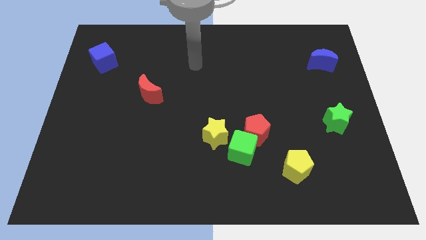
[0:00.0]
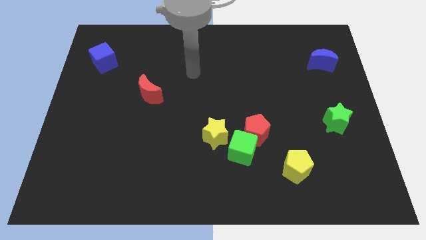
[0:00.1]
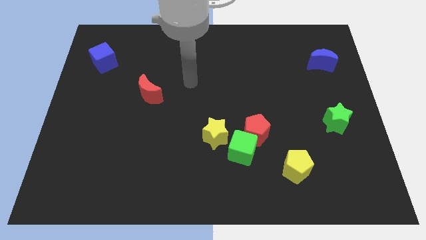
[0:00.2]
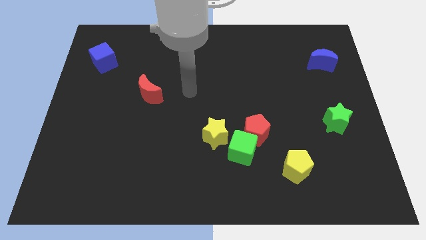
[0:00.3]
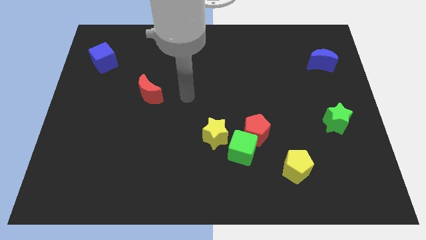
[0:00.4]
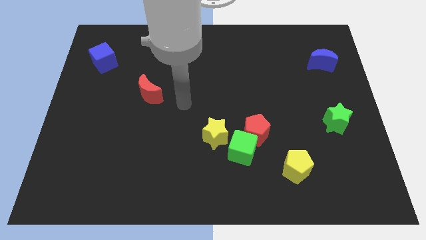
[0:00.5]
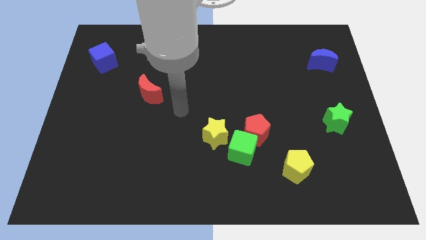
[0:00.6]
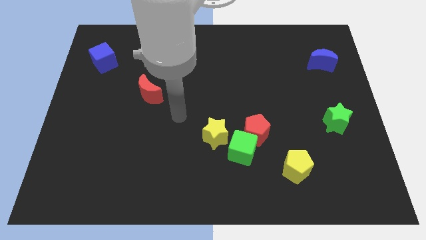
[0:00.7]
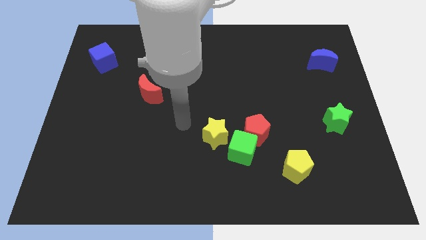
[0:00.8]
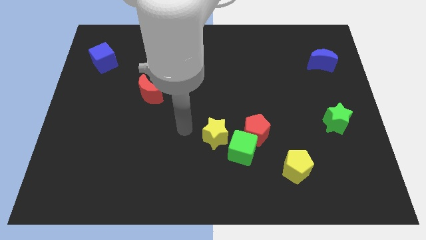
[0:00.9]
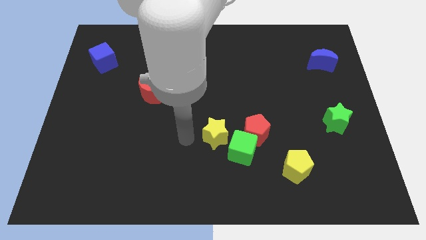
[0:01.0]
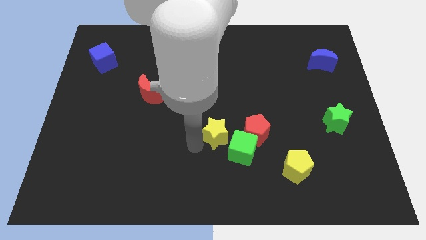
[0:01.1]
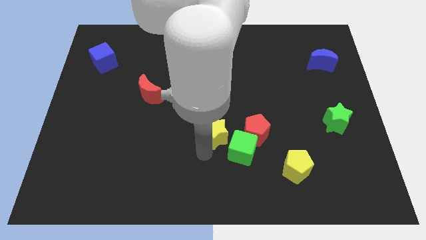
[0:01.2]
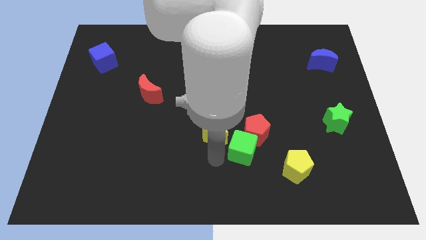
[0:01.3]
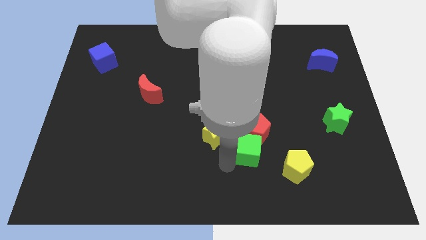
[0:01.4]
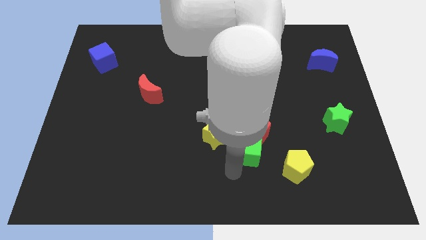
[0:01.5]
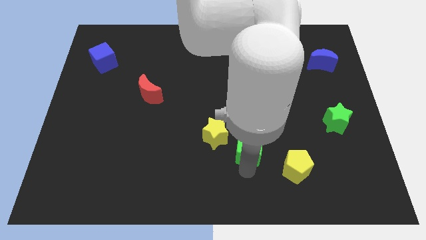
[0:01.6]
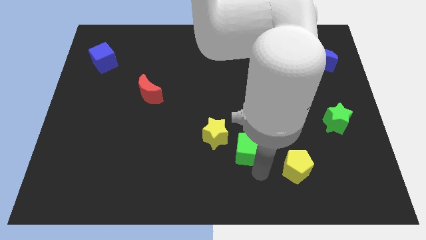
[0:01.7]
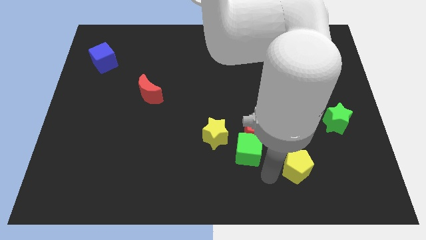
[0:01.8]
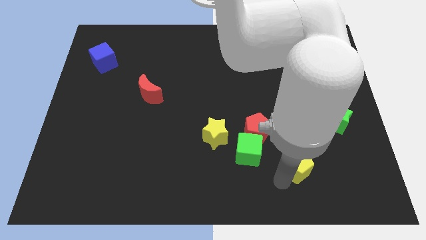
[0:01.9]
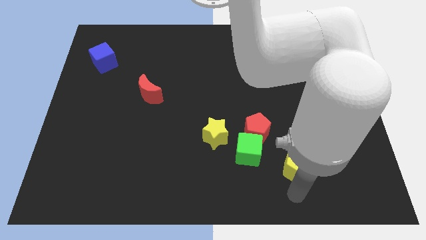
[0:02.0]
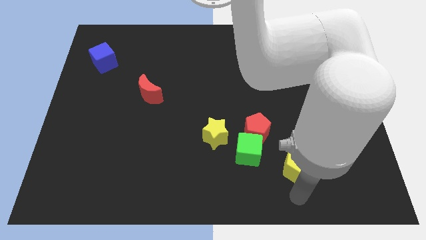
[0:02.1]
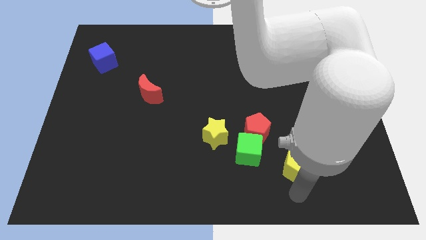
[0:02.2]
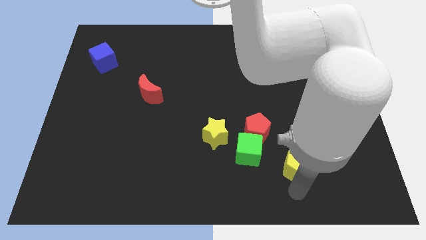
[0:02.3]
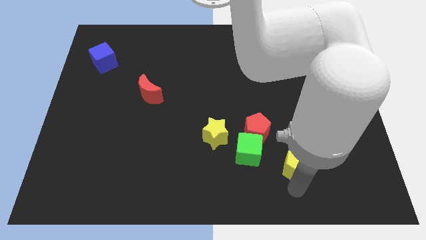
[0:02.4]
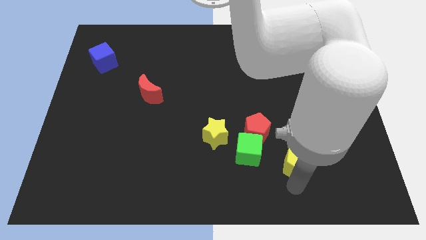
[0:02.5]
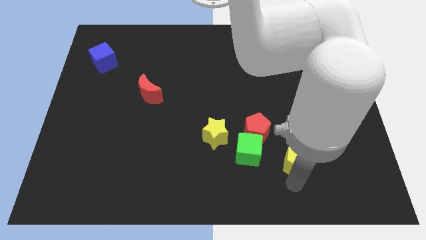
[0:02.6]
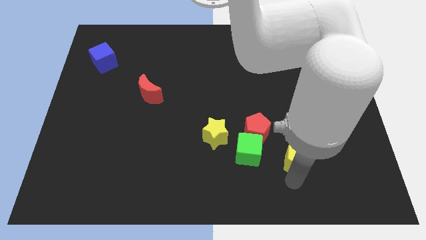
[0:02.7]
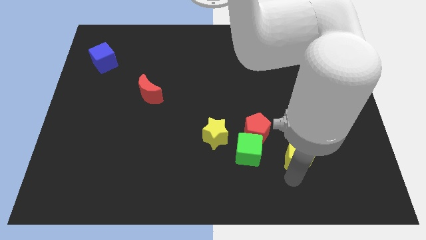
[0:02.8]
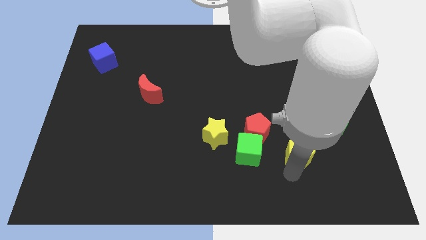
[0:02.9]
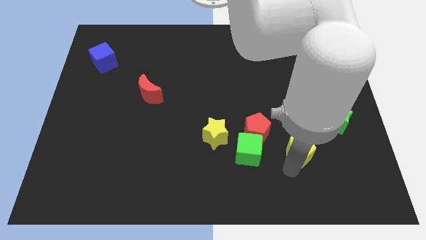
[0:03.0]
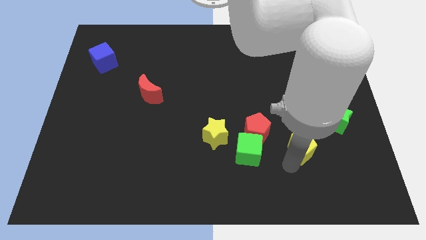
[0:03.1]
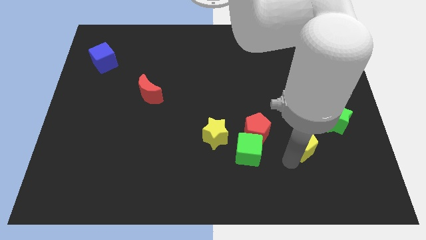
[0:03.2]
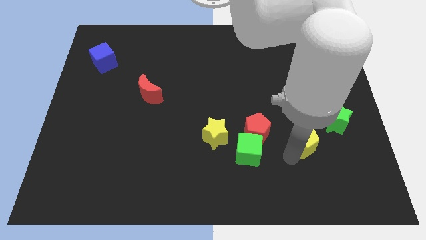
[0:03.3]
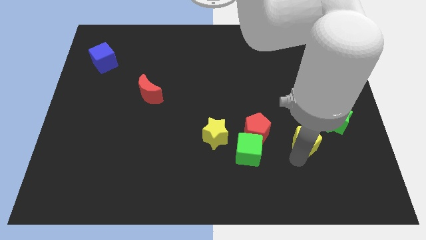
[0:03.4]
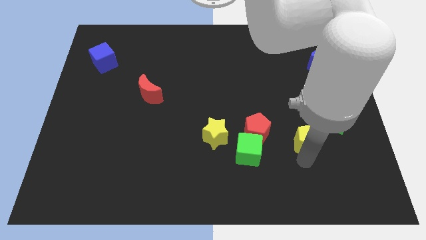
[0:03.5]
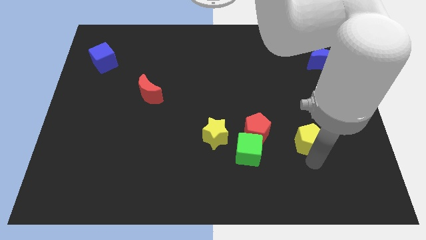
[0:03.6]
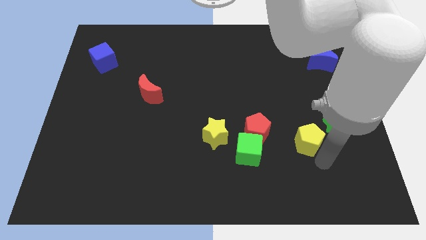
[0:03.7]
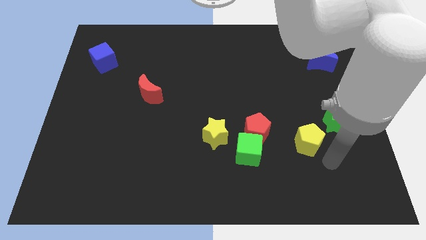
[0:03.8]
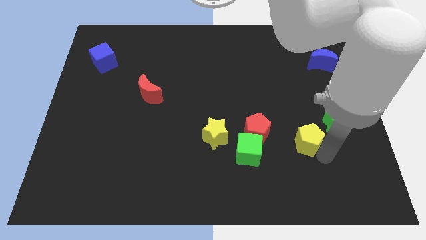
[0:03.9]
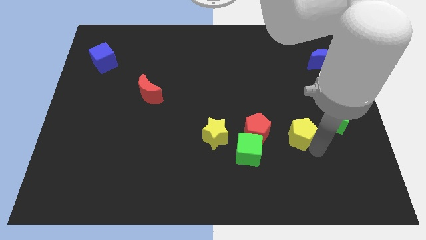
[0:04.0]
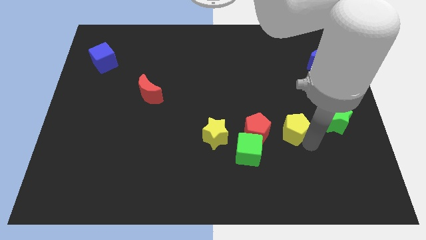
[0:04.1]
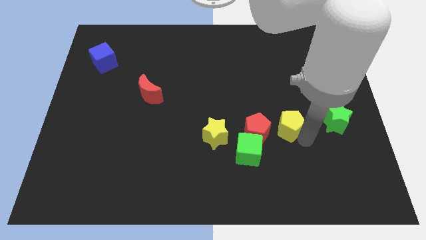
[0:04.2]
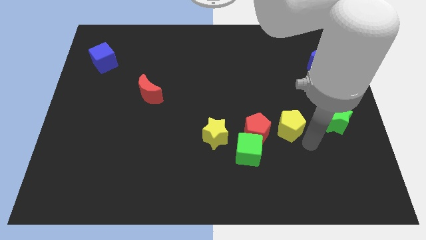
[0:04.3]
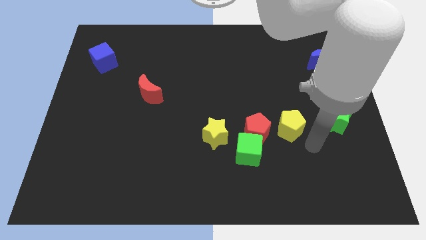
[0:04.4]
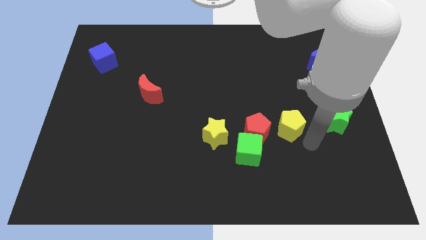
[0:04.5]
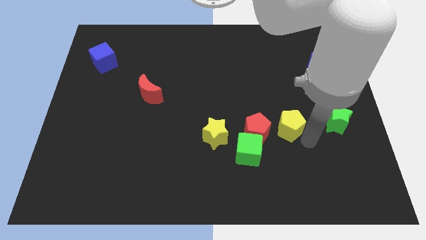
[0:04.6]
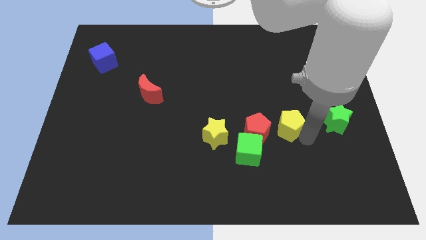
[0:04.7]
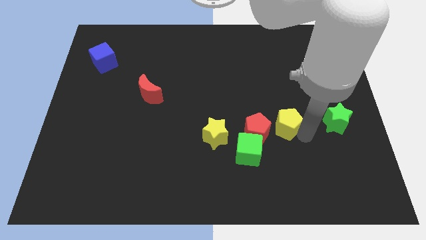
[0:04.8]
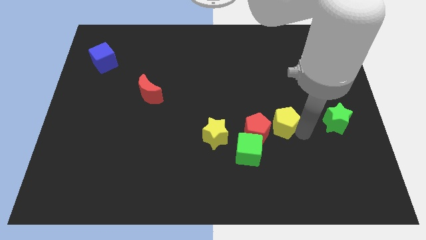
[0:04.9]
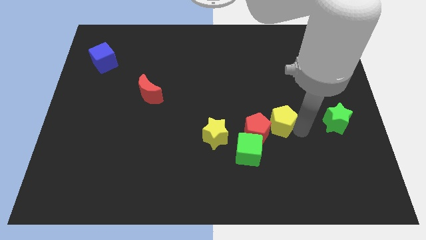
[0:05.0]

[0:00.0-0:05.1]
slightly slide the yellow pentagon upwards and to the left diagonally

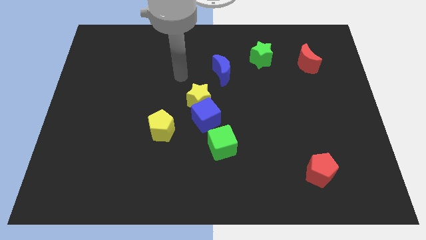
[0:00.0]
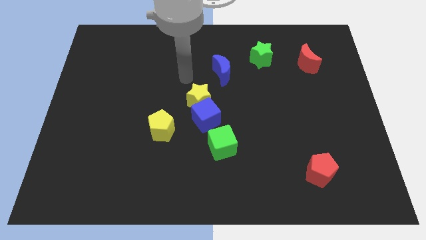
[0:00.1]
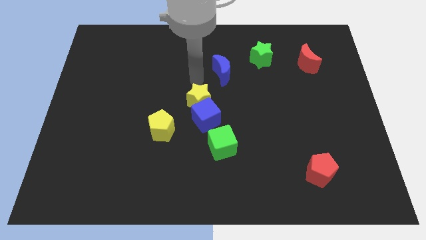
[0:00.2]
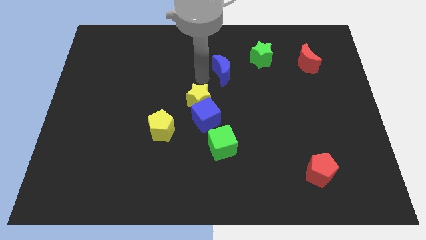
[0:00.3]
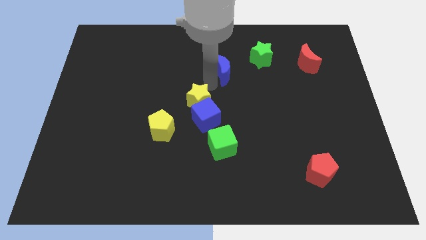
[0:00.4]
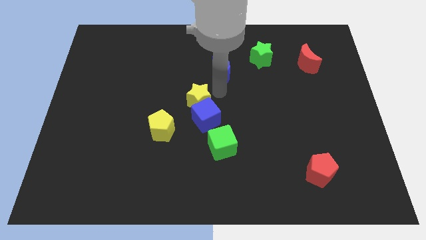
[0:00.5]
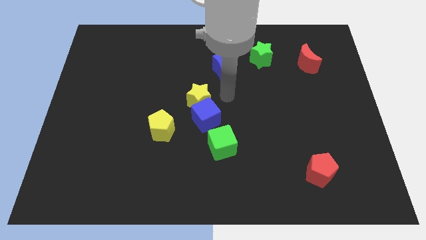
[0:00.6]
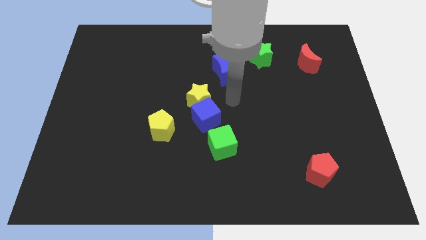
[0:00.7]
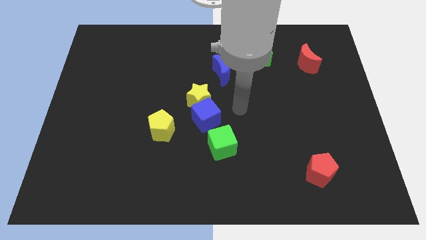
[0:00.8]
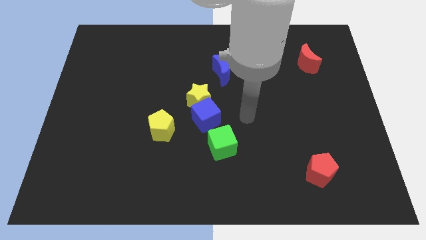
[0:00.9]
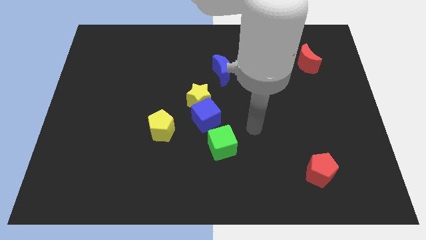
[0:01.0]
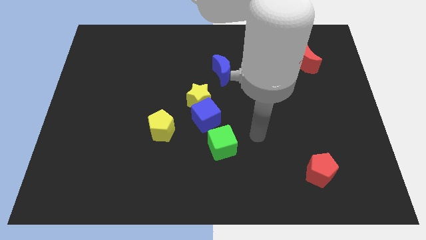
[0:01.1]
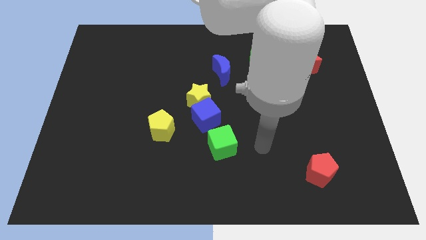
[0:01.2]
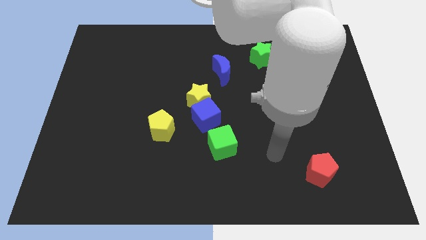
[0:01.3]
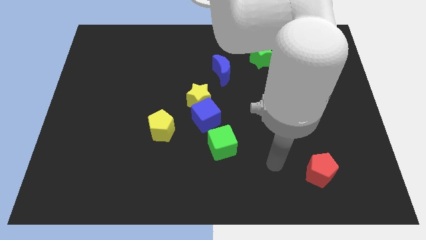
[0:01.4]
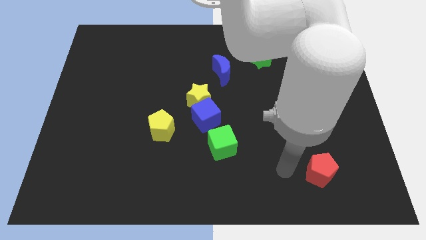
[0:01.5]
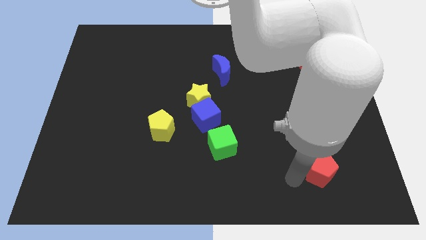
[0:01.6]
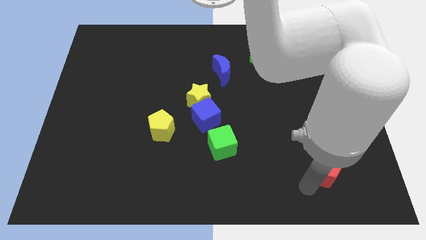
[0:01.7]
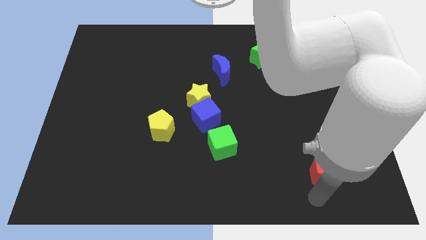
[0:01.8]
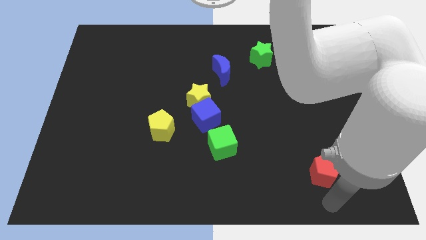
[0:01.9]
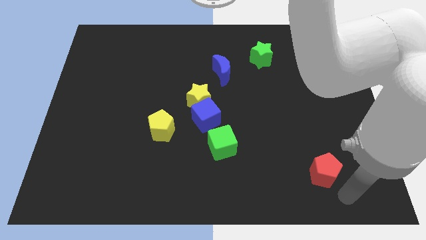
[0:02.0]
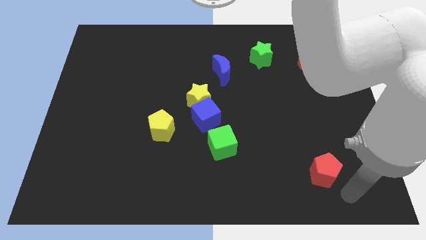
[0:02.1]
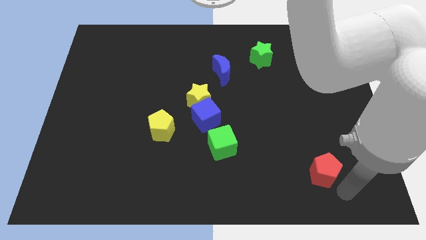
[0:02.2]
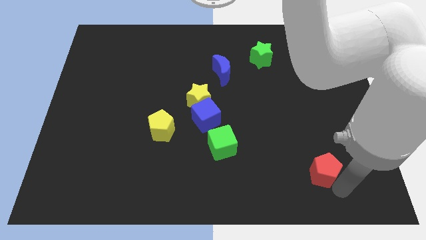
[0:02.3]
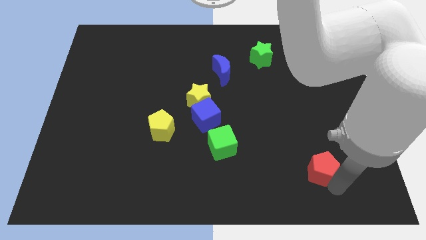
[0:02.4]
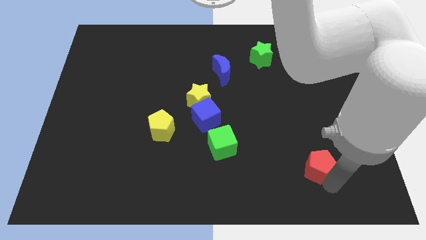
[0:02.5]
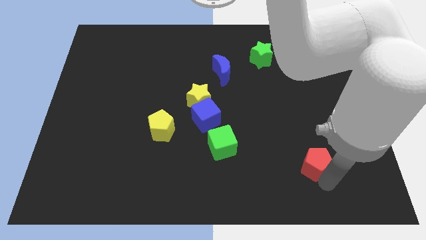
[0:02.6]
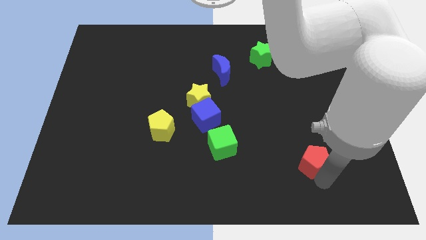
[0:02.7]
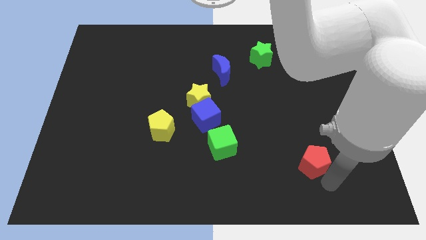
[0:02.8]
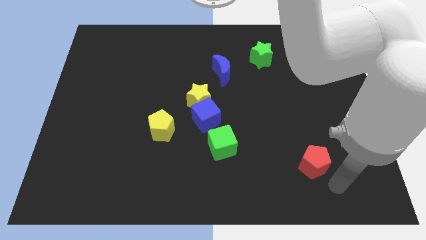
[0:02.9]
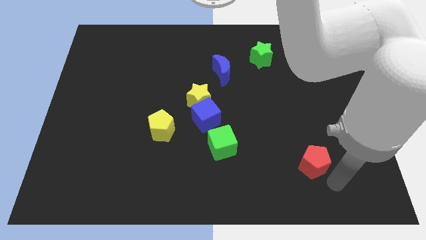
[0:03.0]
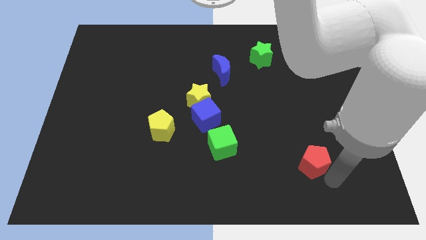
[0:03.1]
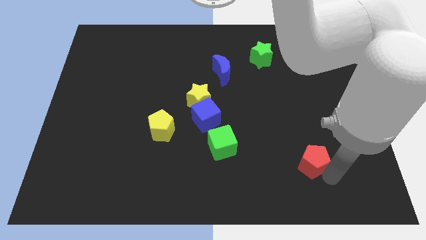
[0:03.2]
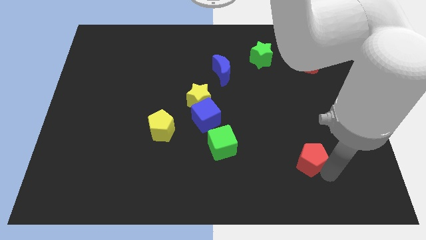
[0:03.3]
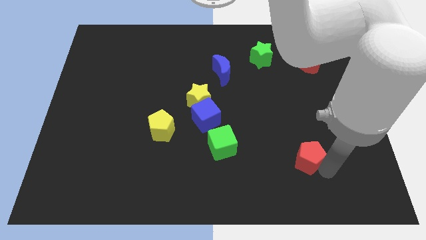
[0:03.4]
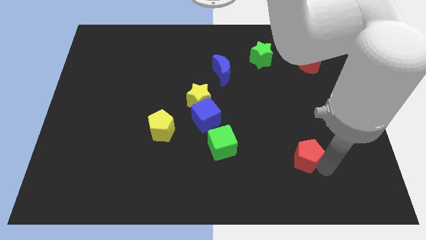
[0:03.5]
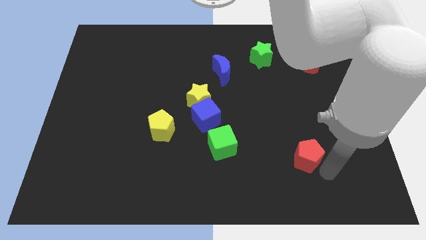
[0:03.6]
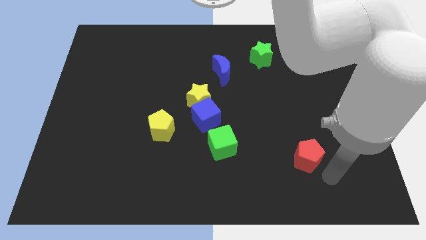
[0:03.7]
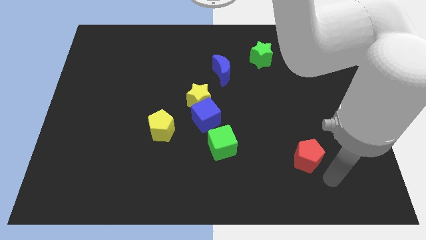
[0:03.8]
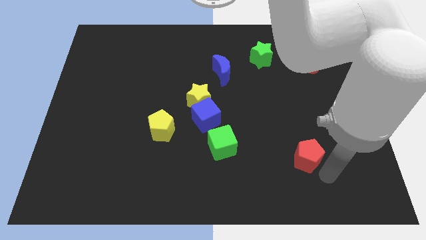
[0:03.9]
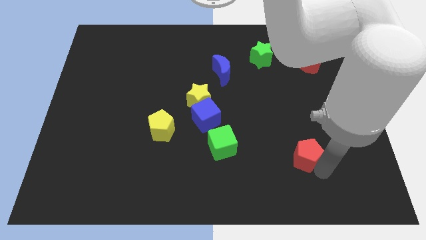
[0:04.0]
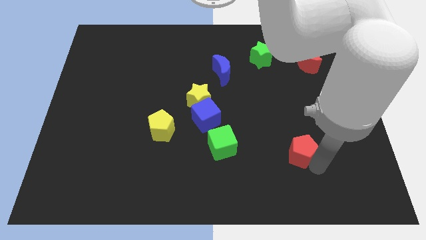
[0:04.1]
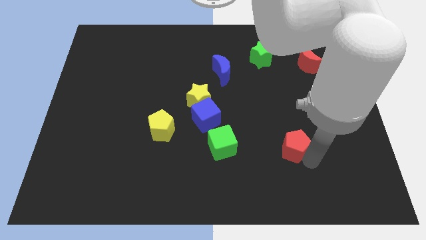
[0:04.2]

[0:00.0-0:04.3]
slide the red pentagon upwards and left a little
